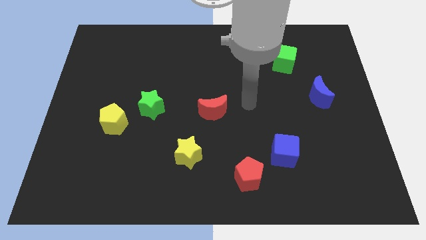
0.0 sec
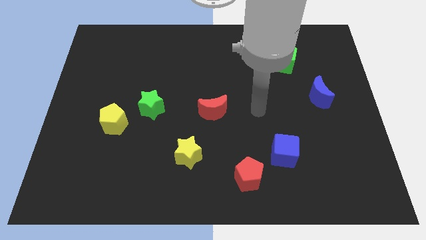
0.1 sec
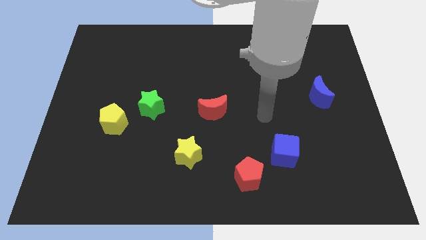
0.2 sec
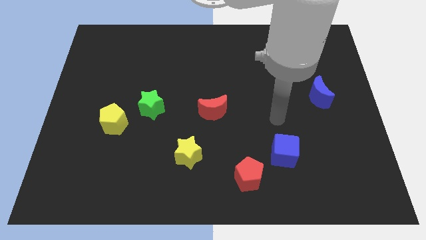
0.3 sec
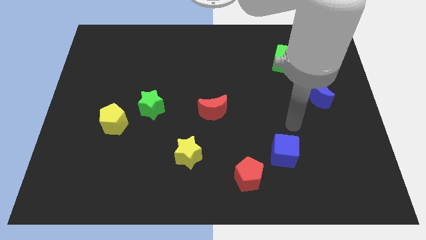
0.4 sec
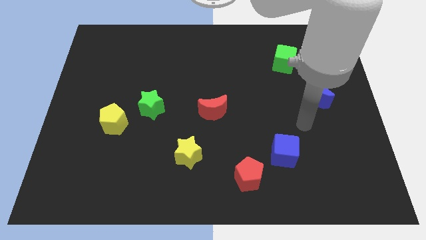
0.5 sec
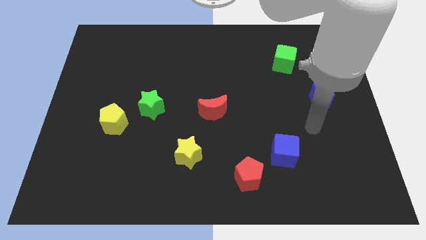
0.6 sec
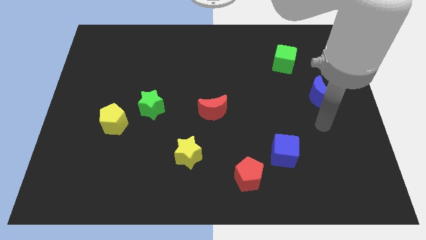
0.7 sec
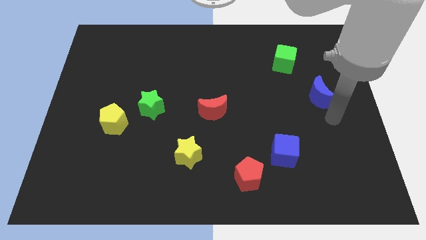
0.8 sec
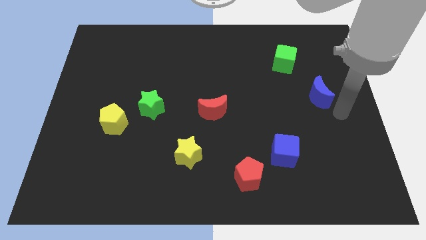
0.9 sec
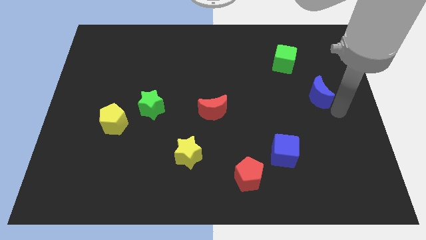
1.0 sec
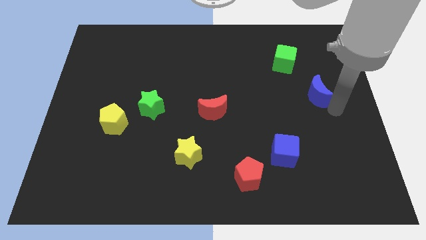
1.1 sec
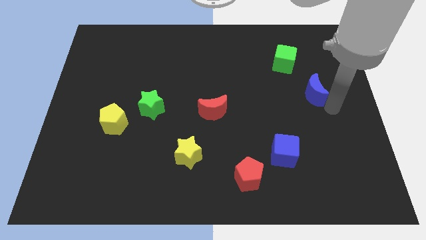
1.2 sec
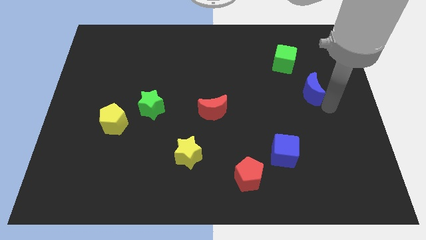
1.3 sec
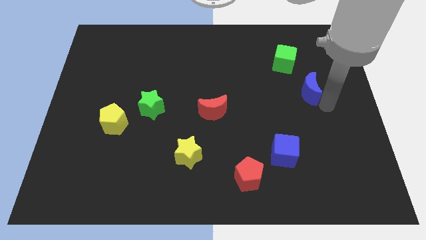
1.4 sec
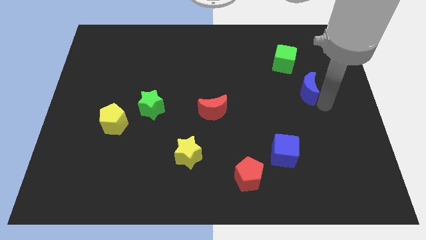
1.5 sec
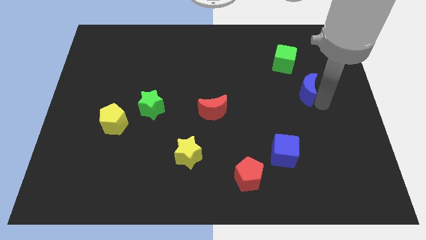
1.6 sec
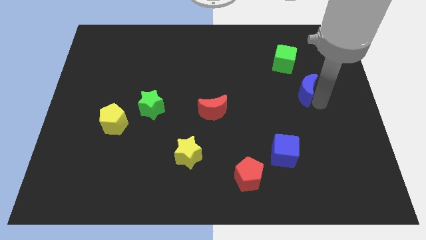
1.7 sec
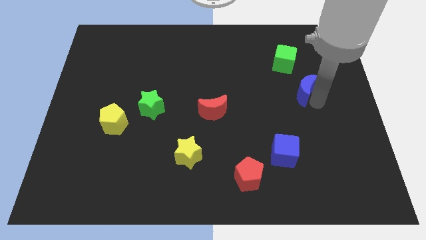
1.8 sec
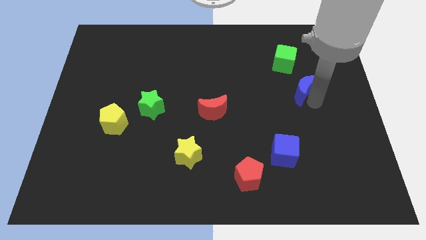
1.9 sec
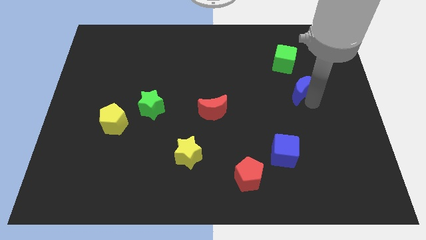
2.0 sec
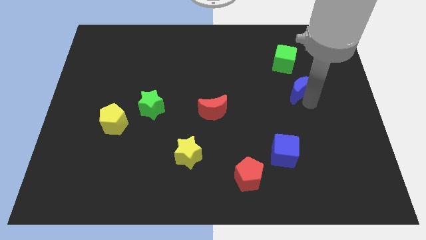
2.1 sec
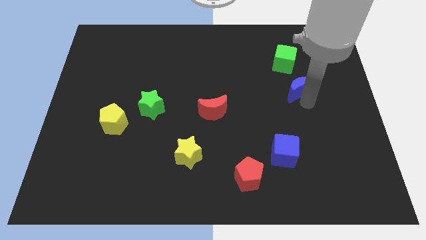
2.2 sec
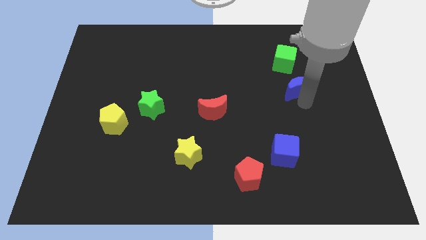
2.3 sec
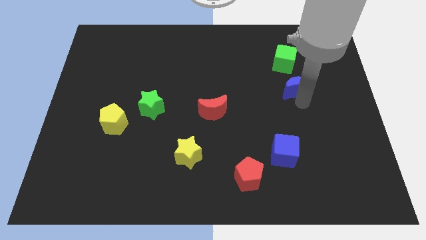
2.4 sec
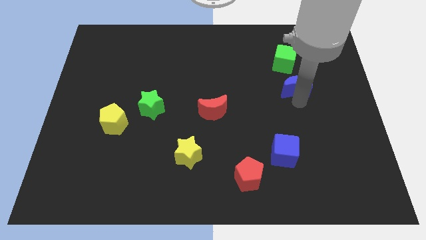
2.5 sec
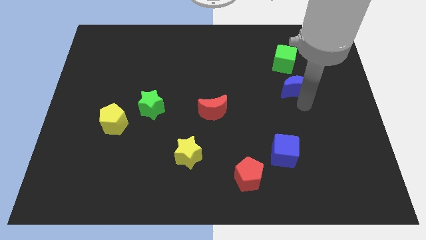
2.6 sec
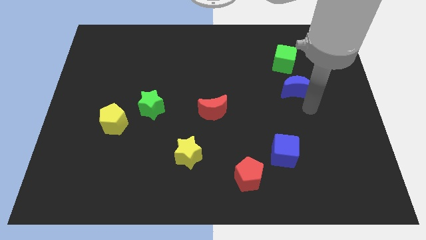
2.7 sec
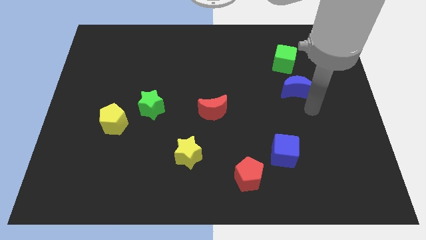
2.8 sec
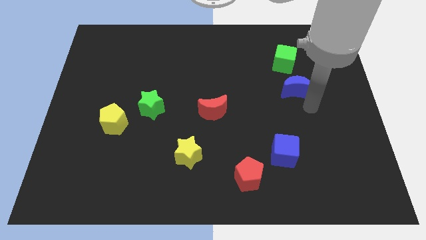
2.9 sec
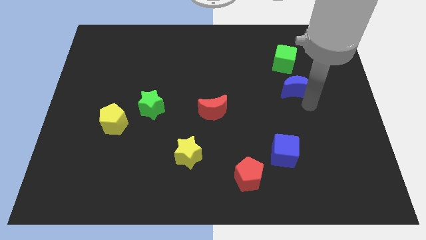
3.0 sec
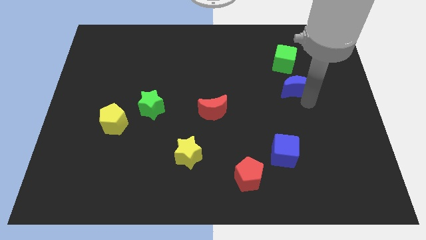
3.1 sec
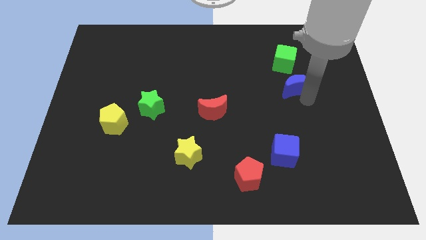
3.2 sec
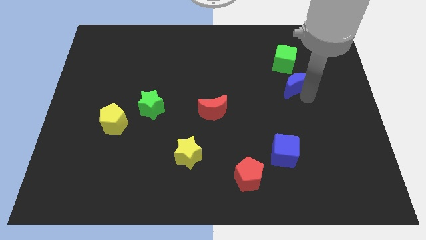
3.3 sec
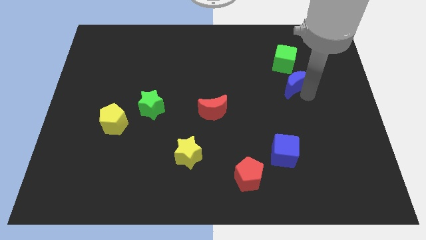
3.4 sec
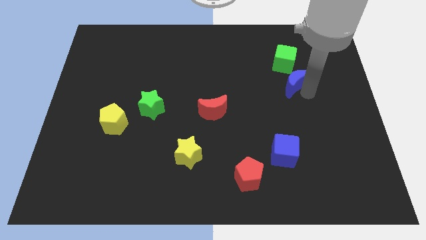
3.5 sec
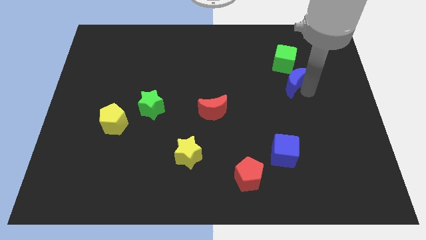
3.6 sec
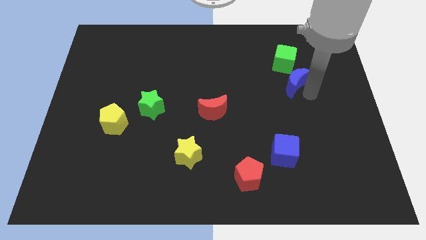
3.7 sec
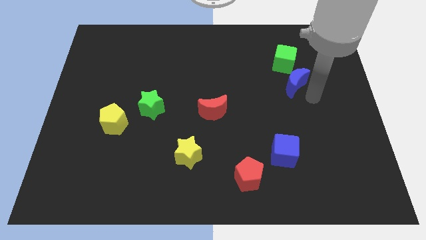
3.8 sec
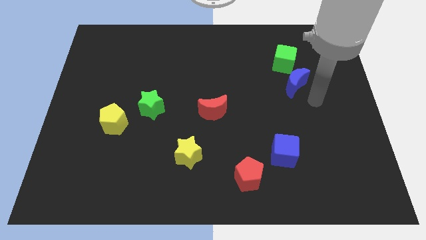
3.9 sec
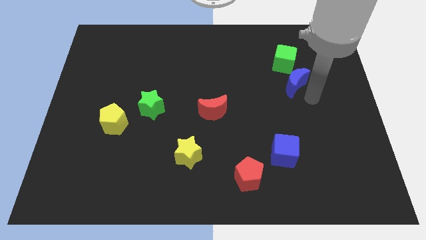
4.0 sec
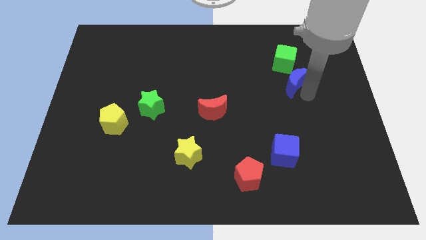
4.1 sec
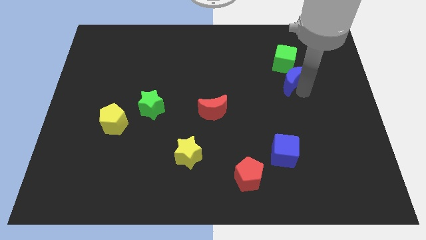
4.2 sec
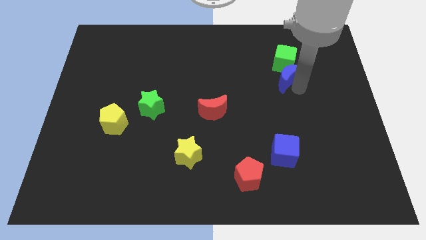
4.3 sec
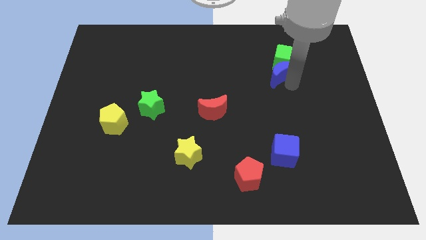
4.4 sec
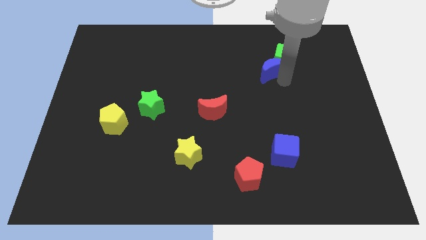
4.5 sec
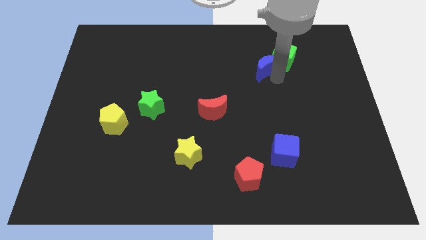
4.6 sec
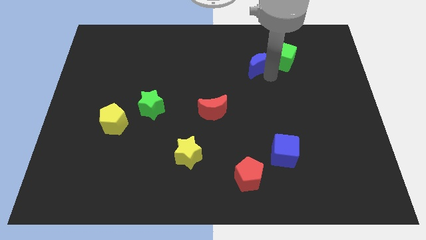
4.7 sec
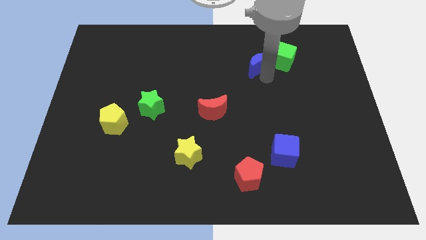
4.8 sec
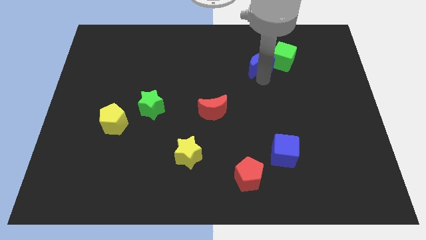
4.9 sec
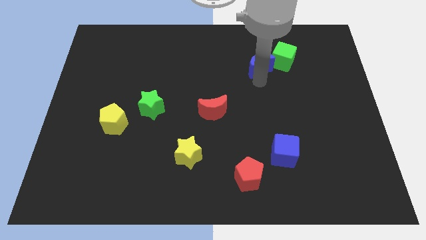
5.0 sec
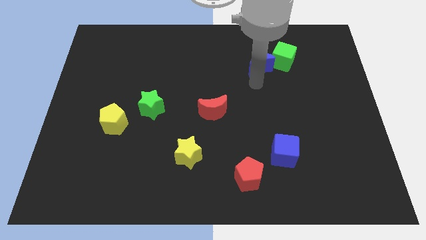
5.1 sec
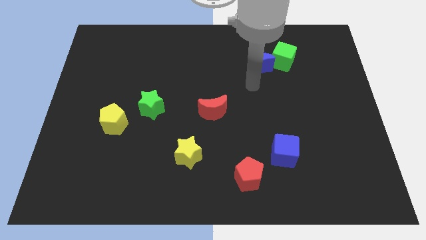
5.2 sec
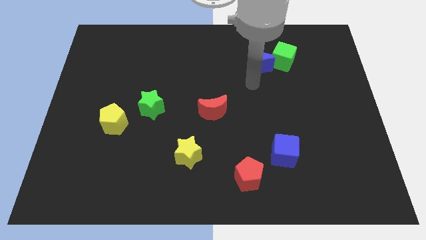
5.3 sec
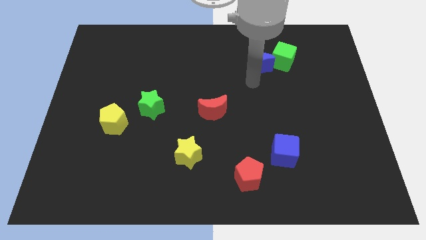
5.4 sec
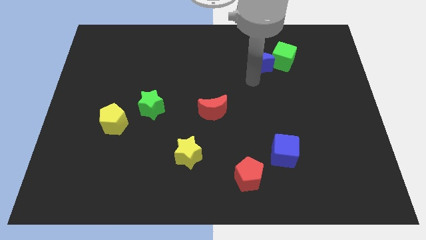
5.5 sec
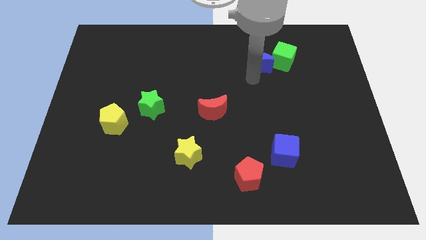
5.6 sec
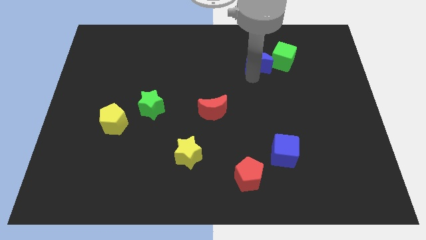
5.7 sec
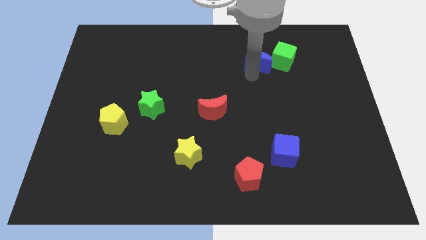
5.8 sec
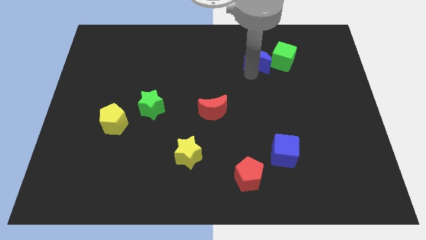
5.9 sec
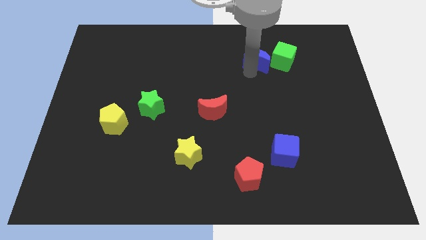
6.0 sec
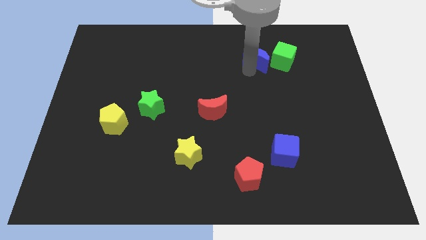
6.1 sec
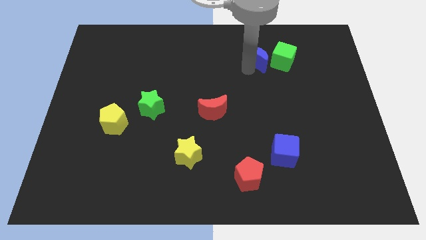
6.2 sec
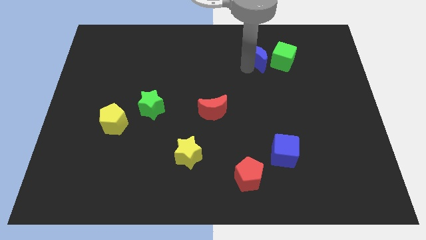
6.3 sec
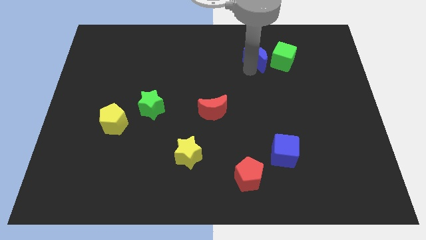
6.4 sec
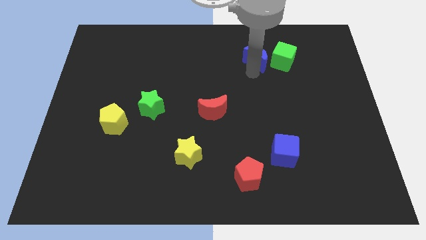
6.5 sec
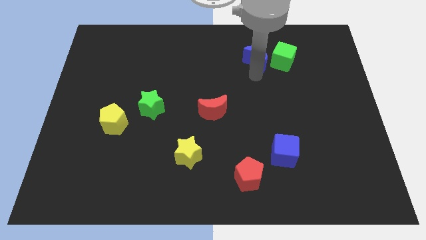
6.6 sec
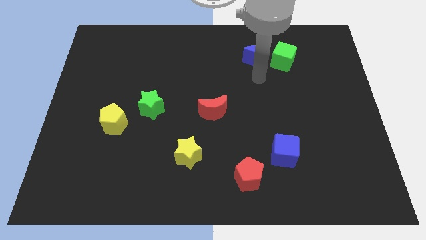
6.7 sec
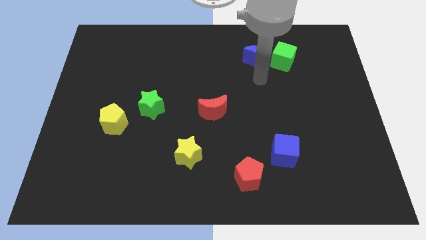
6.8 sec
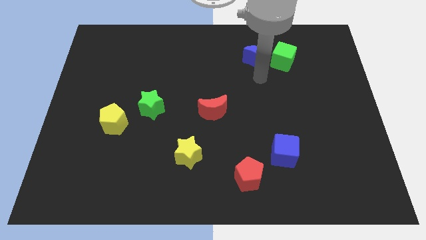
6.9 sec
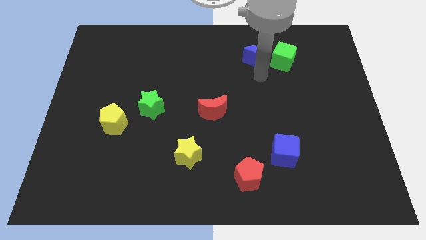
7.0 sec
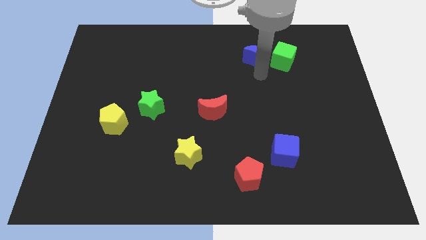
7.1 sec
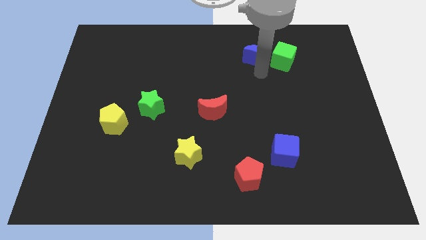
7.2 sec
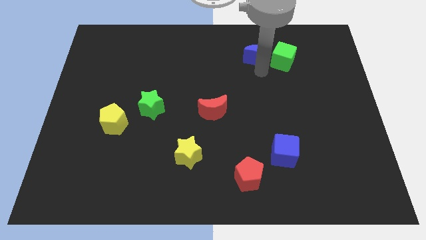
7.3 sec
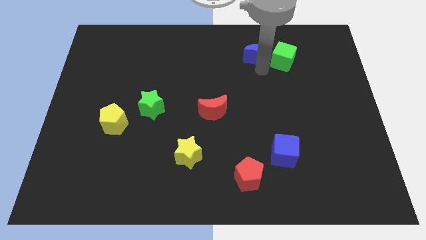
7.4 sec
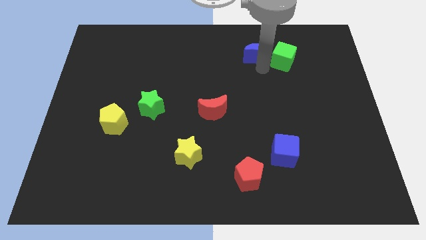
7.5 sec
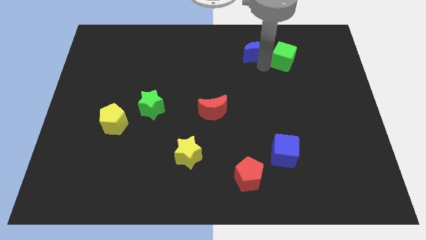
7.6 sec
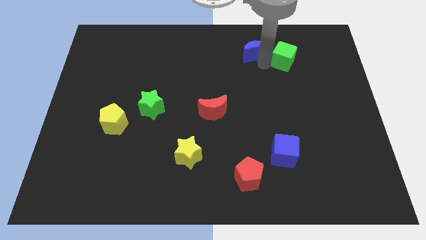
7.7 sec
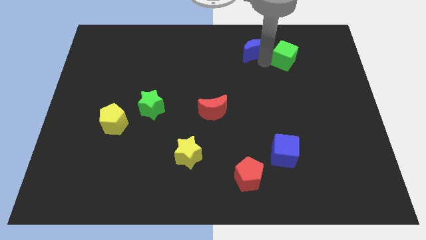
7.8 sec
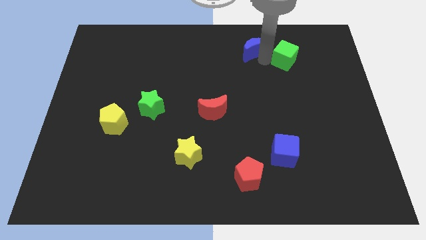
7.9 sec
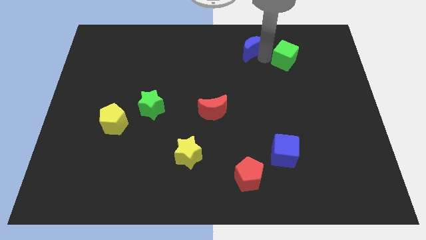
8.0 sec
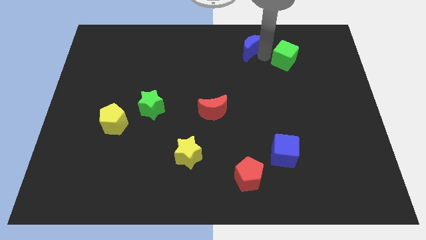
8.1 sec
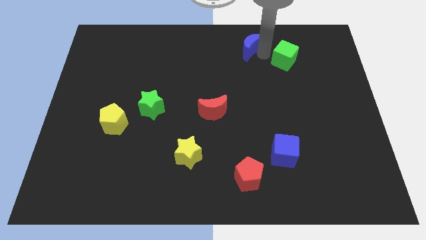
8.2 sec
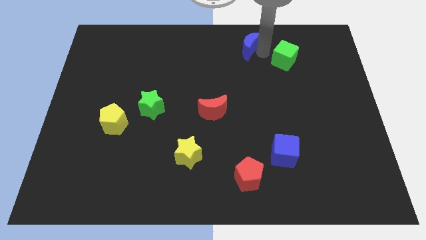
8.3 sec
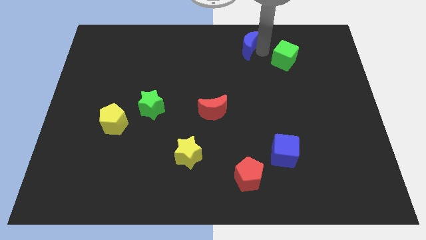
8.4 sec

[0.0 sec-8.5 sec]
put the blue moon to the top side
